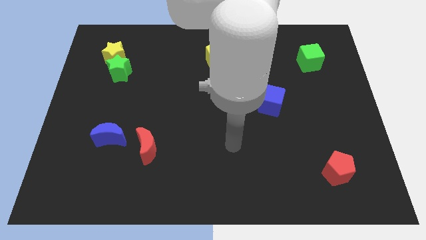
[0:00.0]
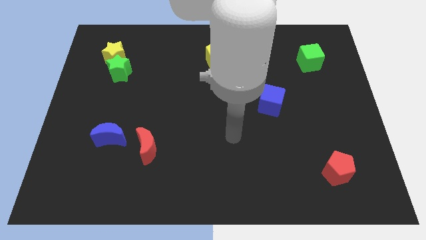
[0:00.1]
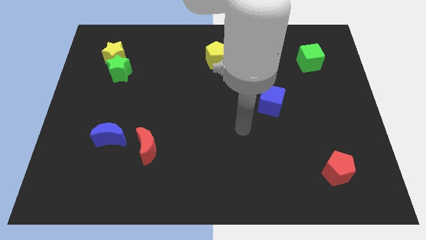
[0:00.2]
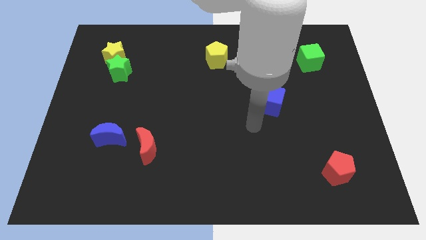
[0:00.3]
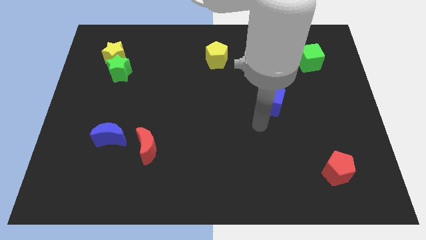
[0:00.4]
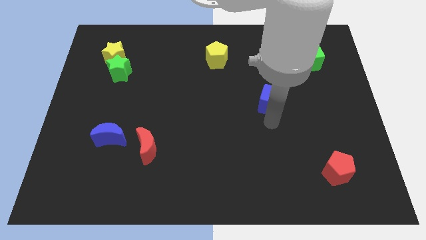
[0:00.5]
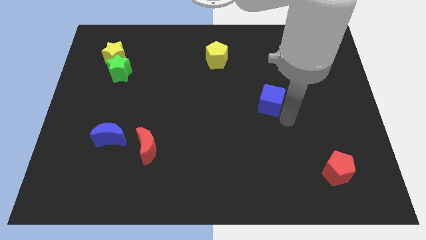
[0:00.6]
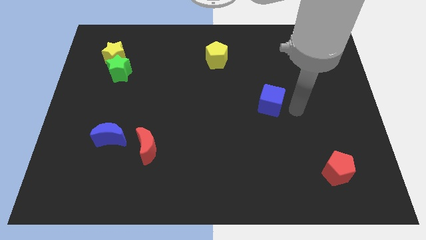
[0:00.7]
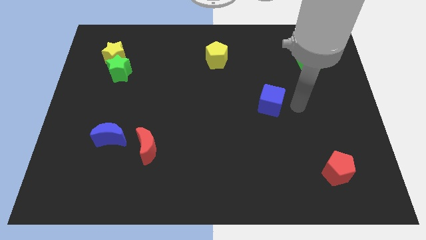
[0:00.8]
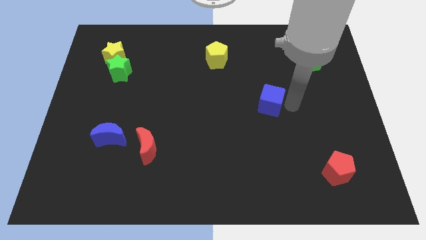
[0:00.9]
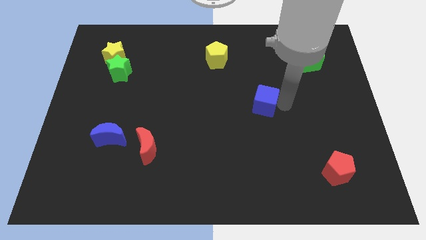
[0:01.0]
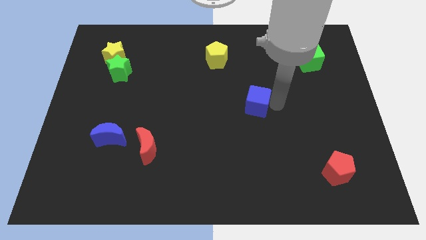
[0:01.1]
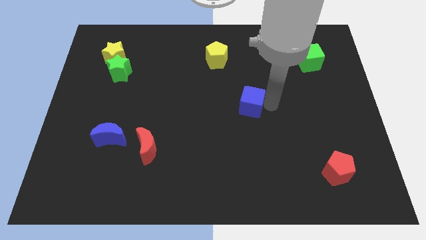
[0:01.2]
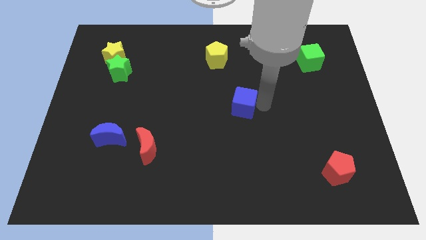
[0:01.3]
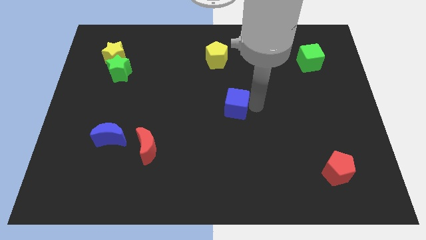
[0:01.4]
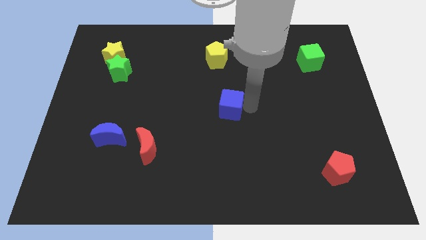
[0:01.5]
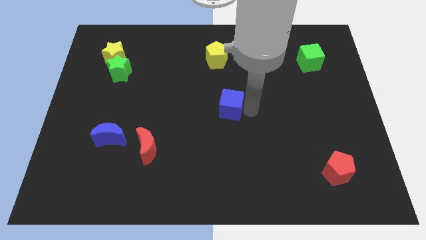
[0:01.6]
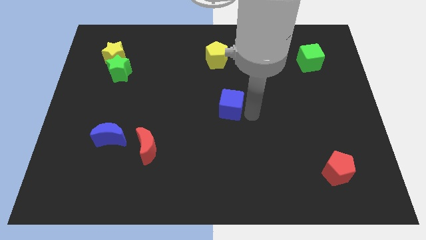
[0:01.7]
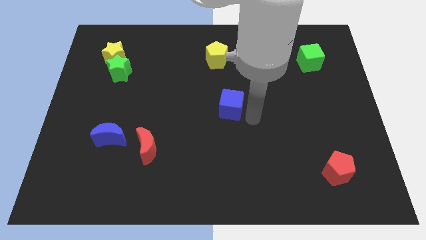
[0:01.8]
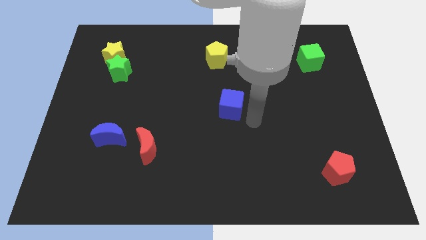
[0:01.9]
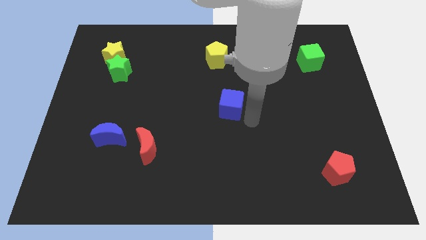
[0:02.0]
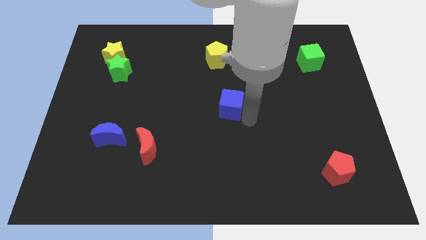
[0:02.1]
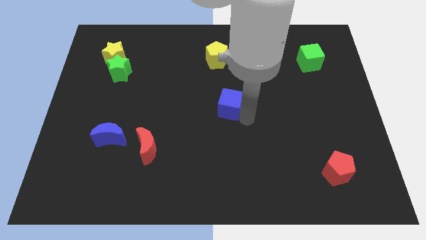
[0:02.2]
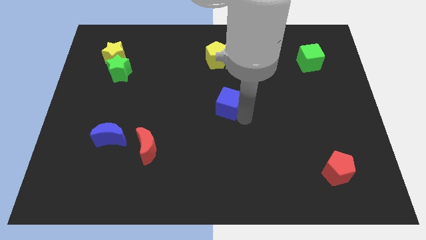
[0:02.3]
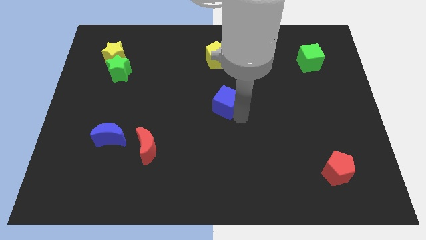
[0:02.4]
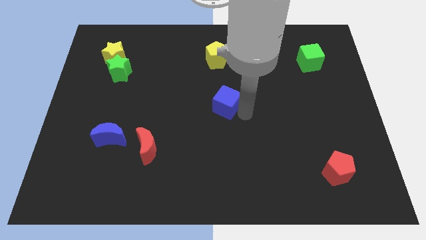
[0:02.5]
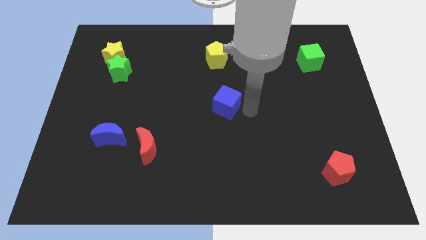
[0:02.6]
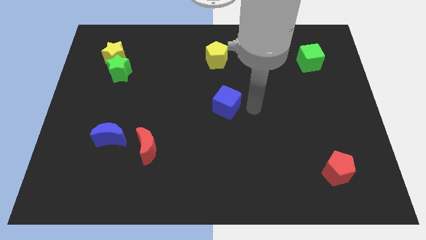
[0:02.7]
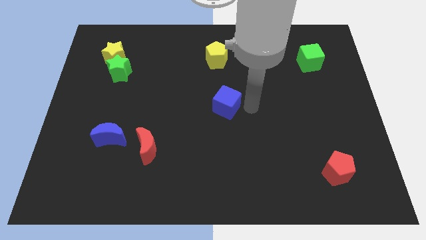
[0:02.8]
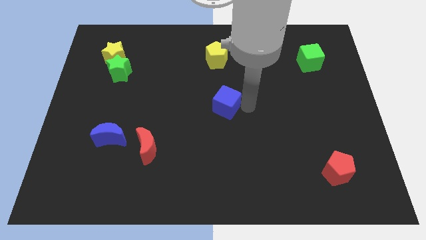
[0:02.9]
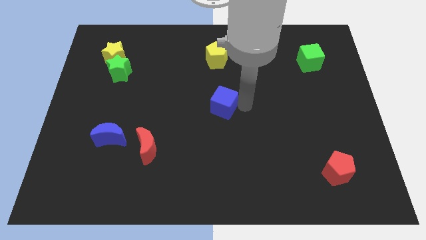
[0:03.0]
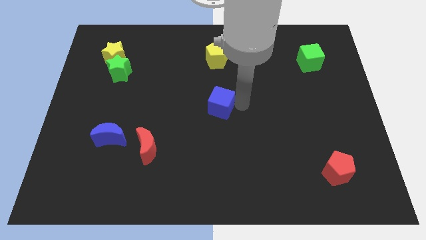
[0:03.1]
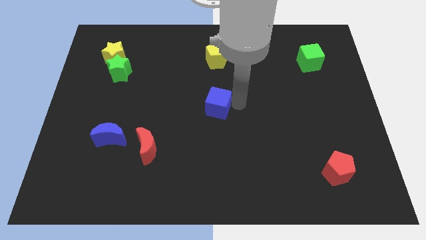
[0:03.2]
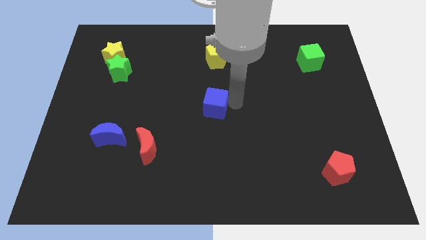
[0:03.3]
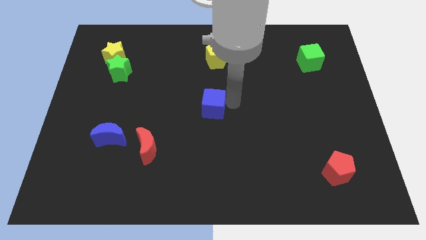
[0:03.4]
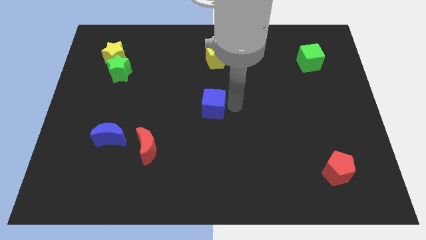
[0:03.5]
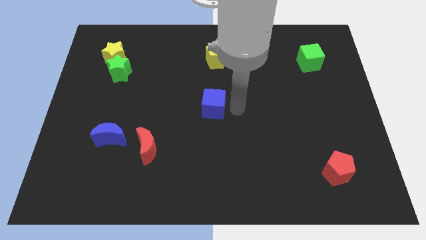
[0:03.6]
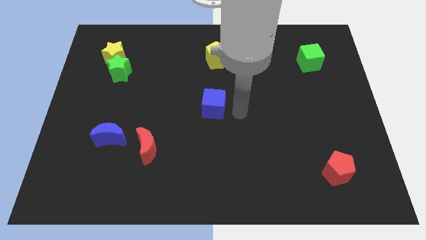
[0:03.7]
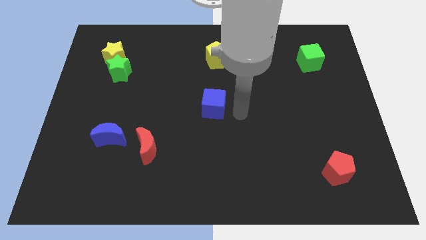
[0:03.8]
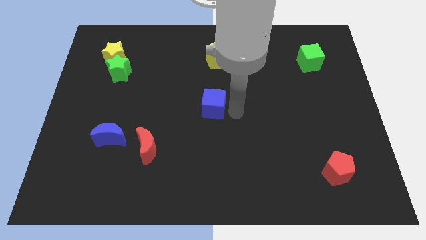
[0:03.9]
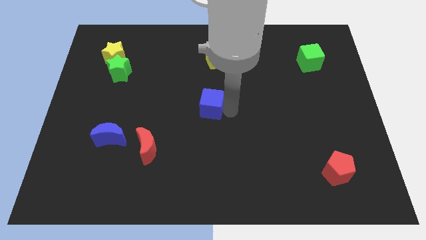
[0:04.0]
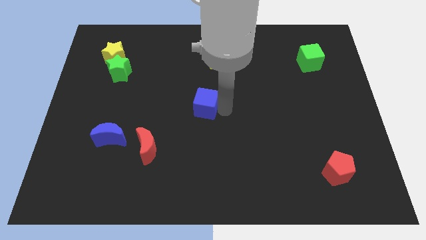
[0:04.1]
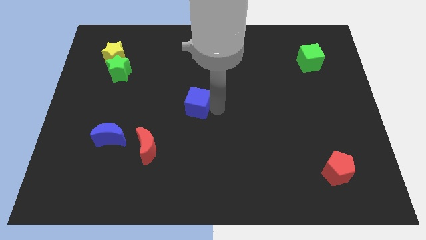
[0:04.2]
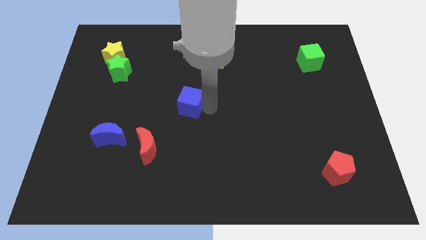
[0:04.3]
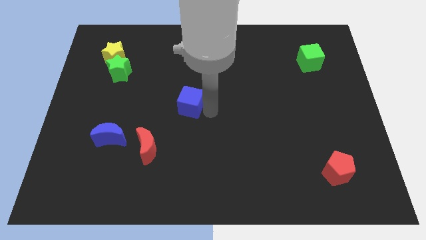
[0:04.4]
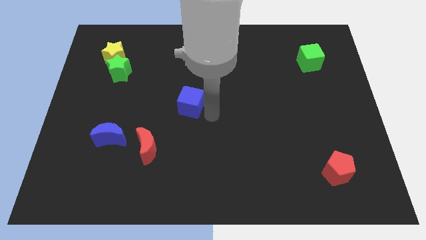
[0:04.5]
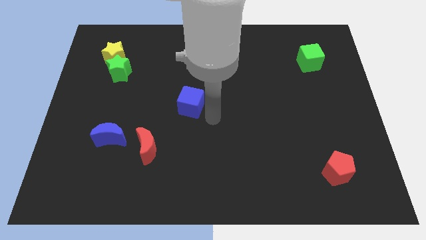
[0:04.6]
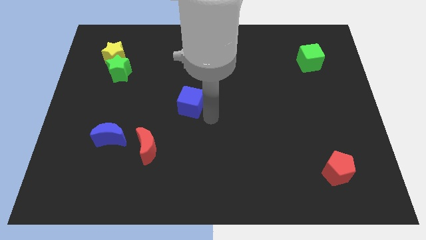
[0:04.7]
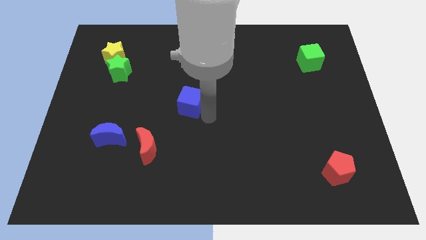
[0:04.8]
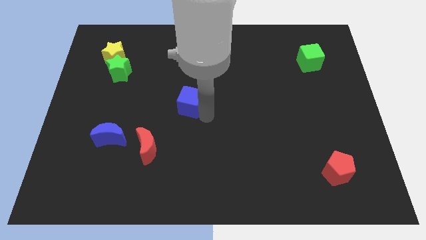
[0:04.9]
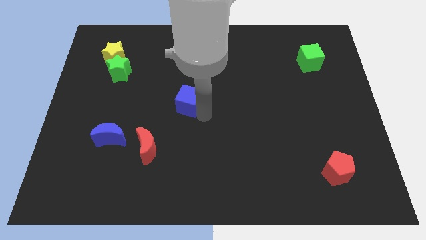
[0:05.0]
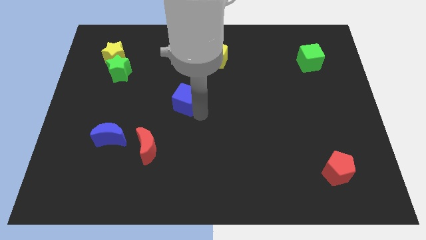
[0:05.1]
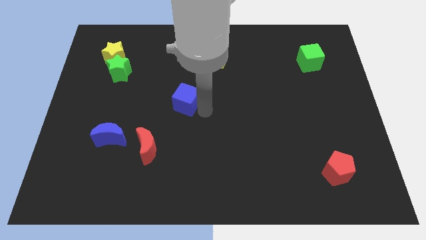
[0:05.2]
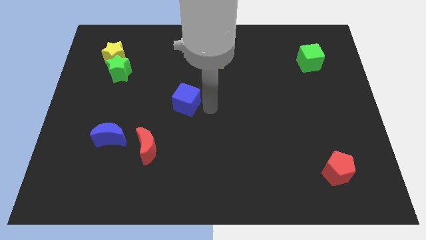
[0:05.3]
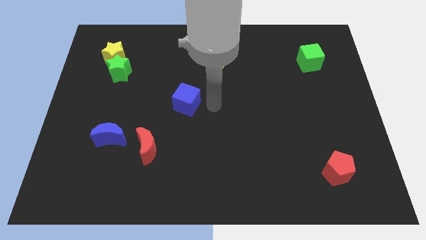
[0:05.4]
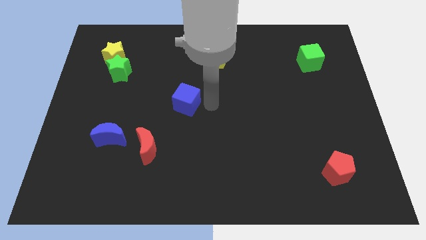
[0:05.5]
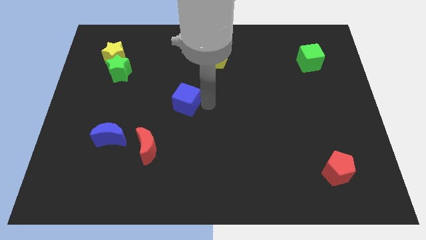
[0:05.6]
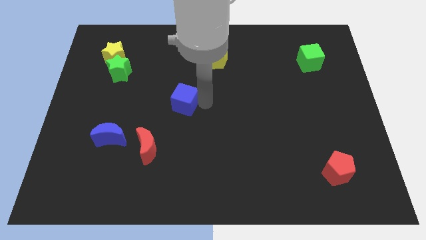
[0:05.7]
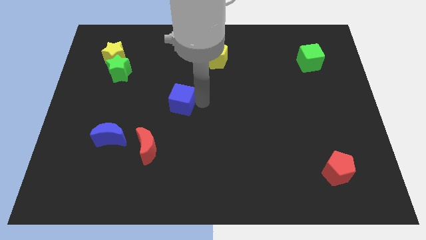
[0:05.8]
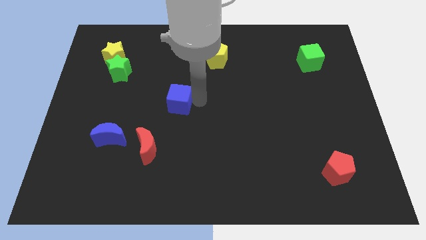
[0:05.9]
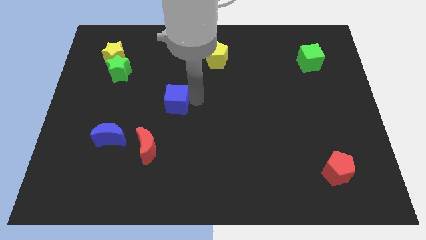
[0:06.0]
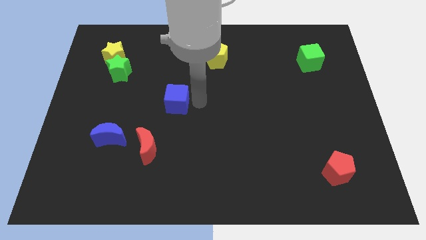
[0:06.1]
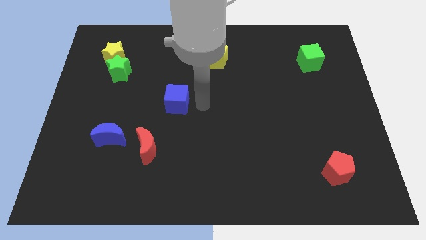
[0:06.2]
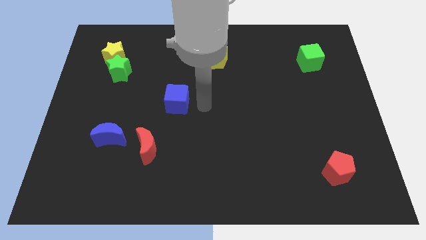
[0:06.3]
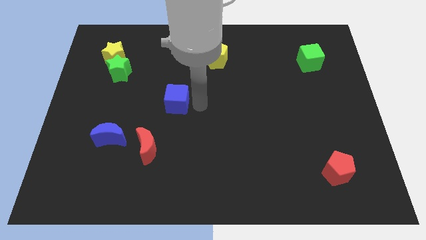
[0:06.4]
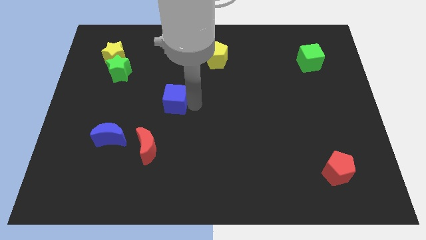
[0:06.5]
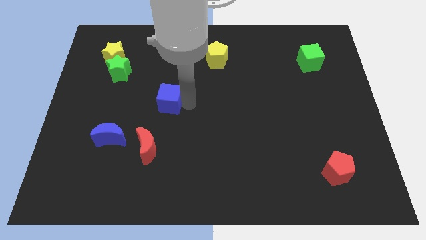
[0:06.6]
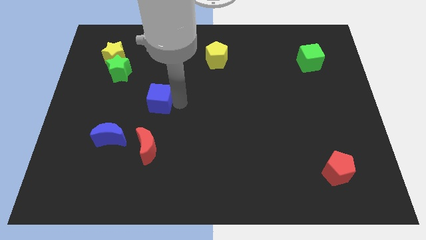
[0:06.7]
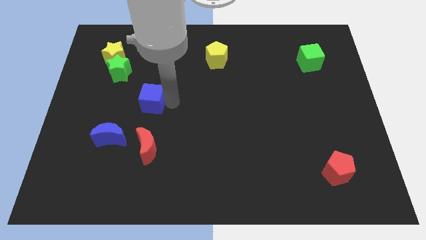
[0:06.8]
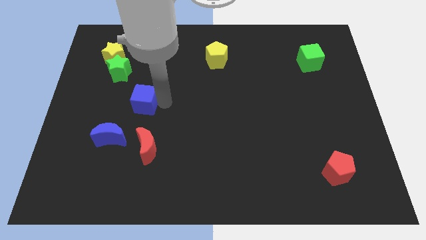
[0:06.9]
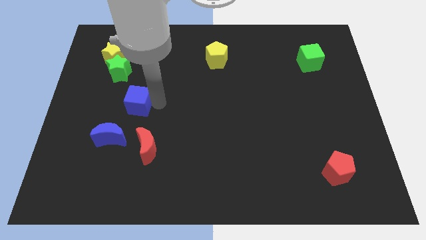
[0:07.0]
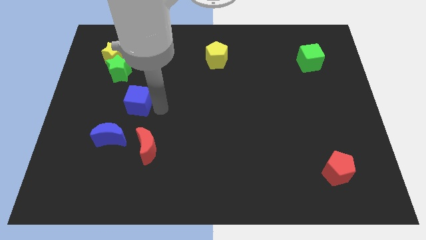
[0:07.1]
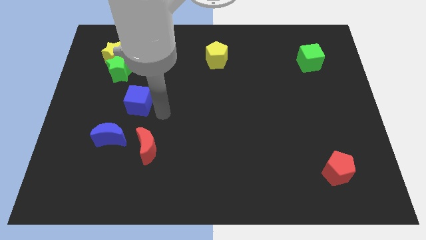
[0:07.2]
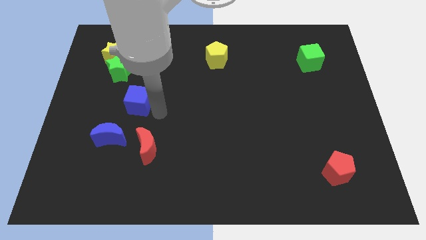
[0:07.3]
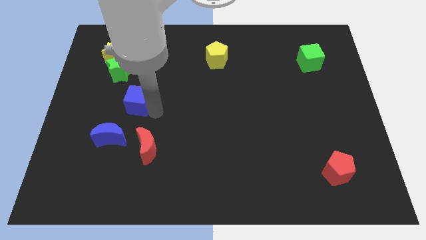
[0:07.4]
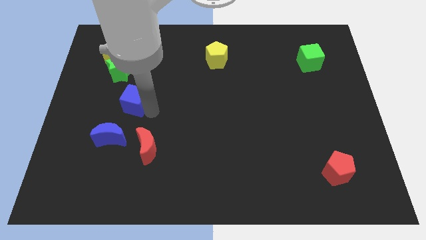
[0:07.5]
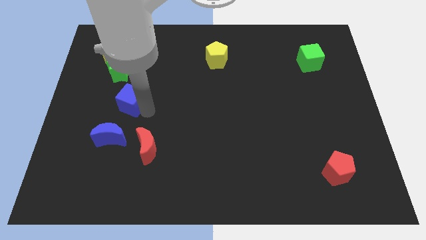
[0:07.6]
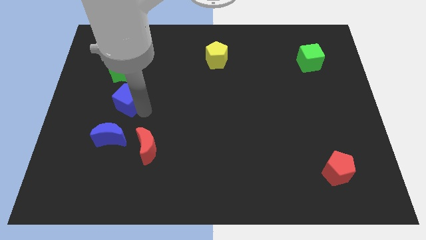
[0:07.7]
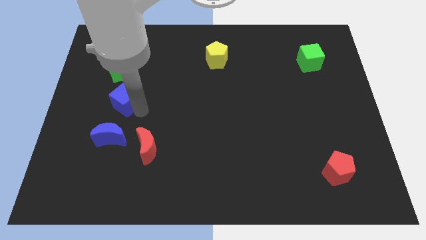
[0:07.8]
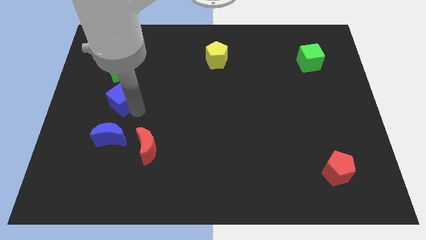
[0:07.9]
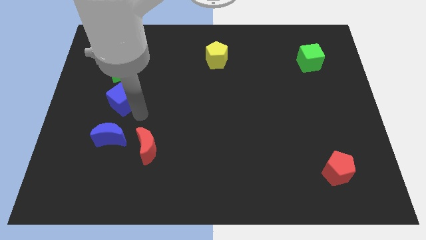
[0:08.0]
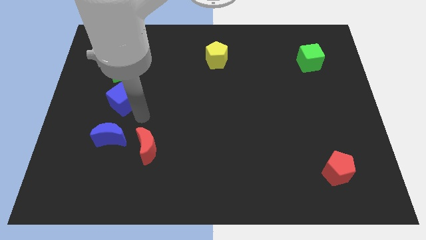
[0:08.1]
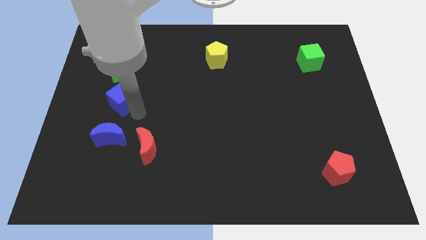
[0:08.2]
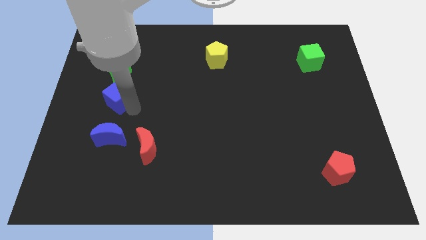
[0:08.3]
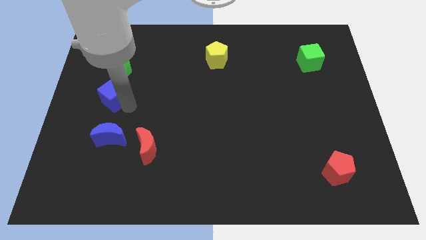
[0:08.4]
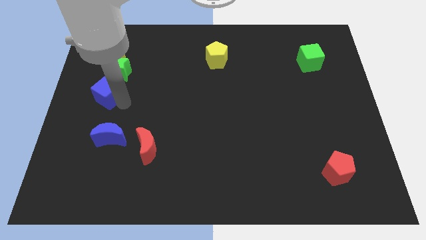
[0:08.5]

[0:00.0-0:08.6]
push the blue cube to the bottom left of the green star
